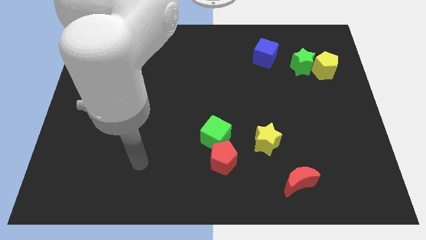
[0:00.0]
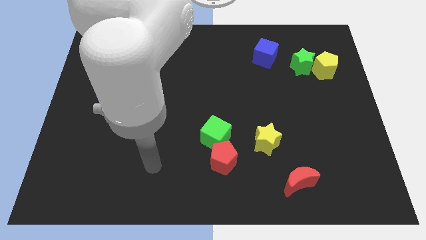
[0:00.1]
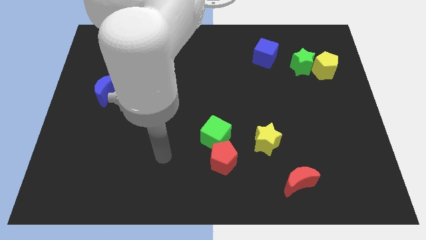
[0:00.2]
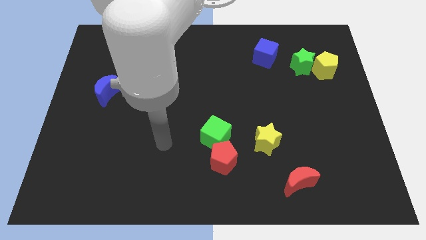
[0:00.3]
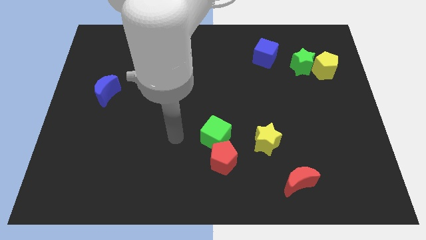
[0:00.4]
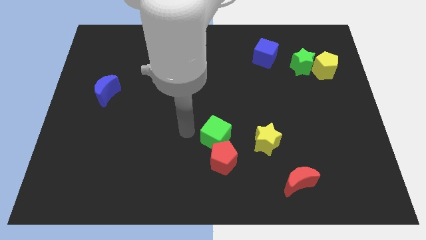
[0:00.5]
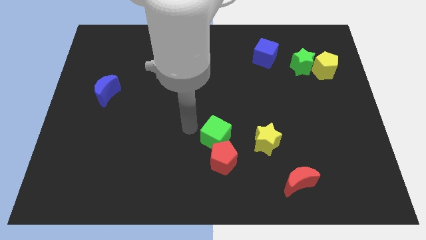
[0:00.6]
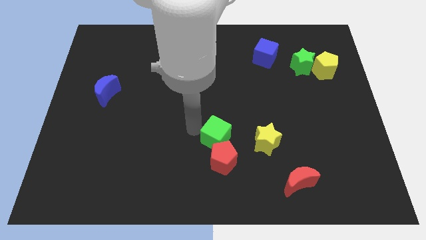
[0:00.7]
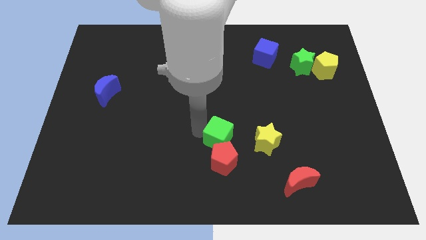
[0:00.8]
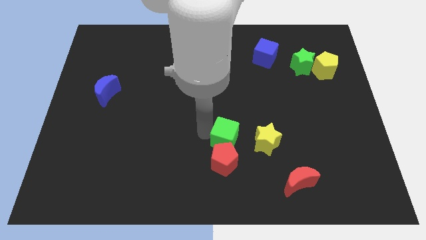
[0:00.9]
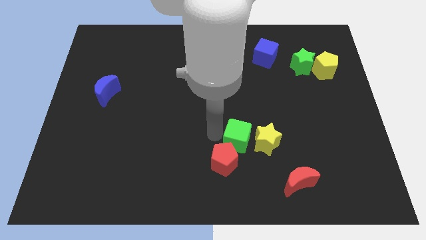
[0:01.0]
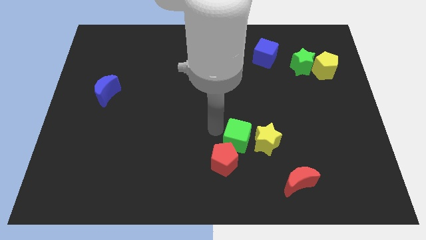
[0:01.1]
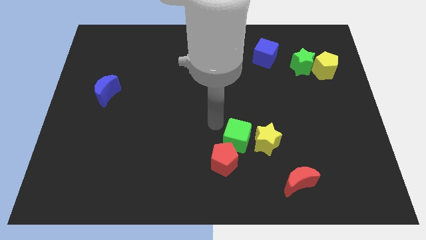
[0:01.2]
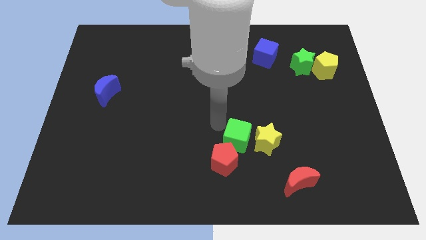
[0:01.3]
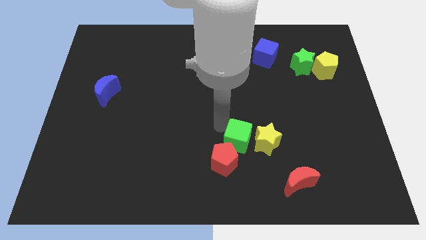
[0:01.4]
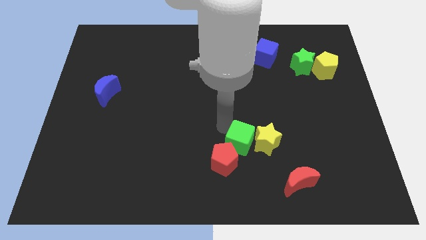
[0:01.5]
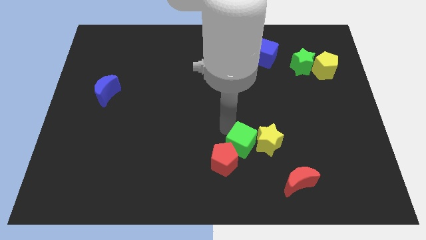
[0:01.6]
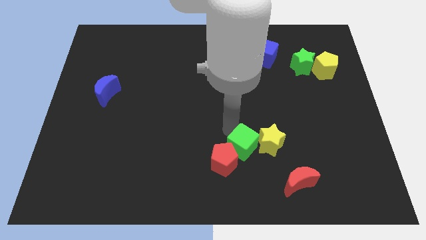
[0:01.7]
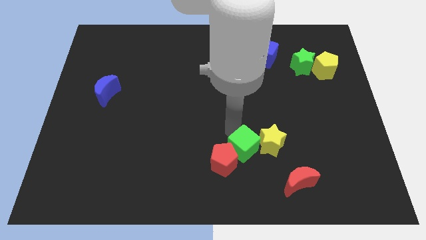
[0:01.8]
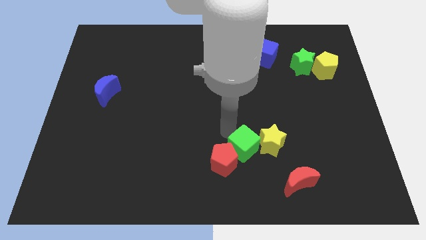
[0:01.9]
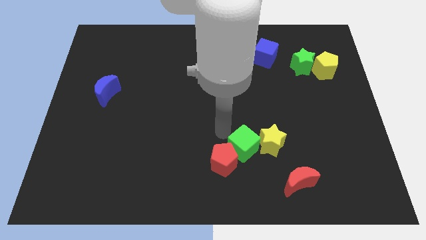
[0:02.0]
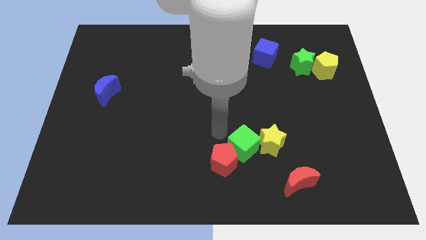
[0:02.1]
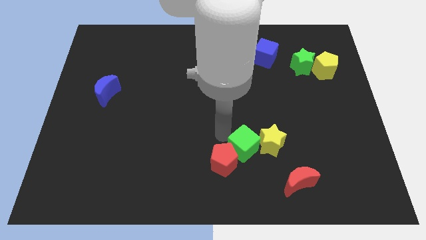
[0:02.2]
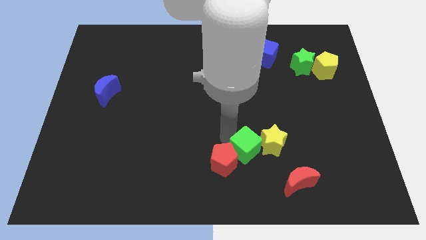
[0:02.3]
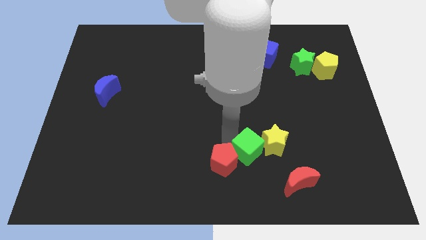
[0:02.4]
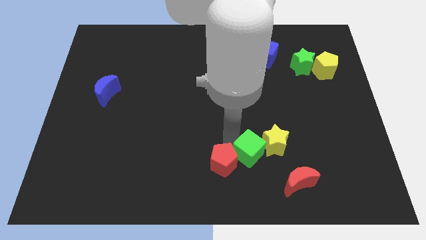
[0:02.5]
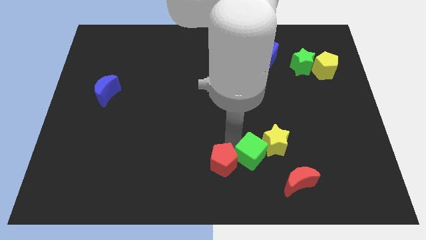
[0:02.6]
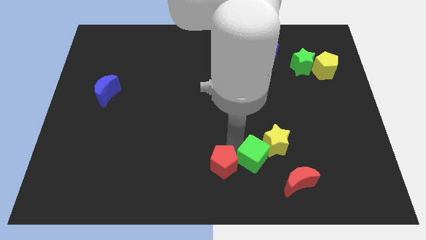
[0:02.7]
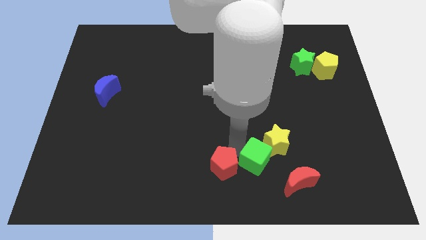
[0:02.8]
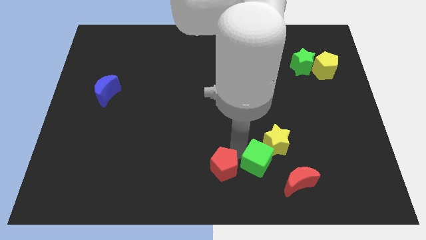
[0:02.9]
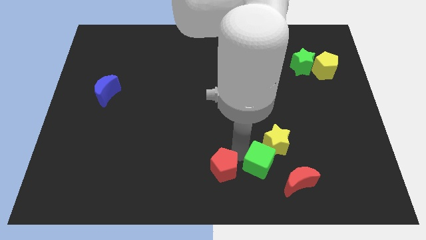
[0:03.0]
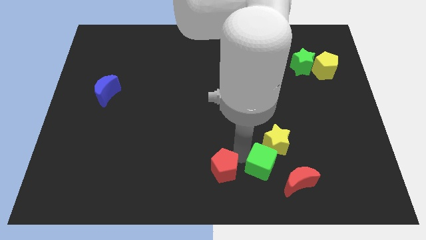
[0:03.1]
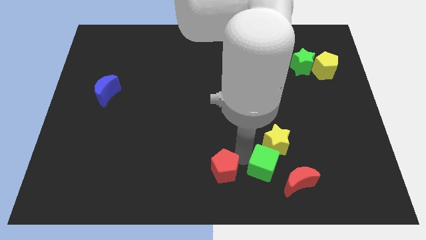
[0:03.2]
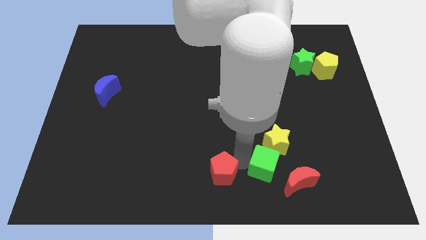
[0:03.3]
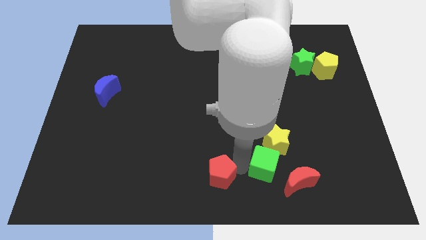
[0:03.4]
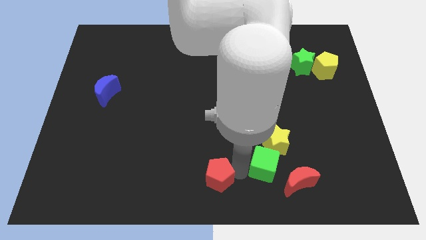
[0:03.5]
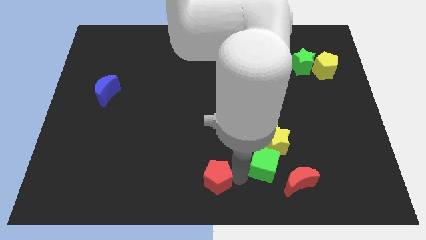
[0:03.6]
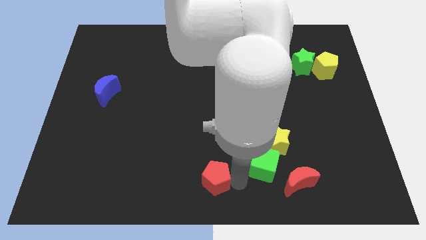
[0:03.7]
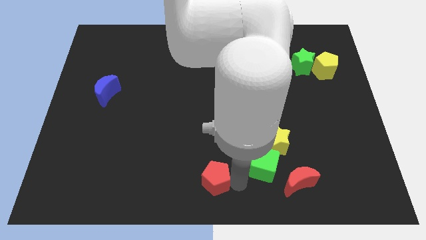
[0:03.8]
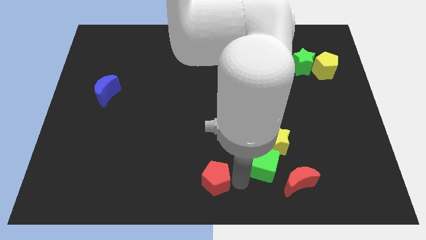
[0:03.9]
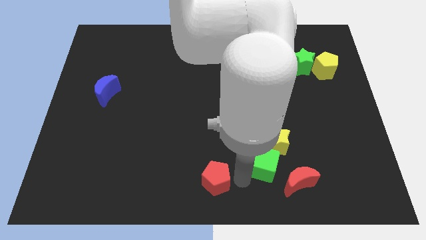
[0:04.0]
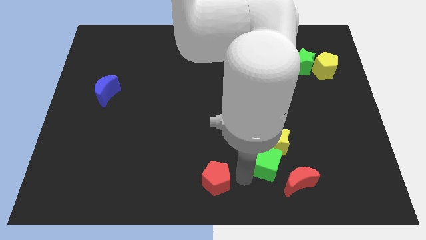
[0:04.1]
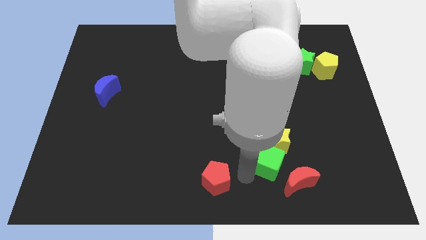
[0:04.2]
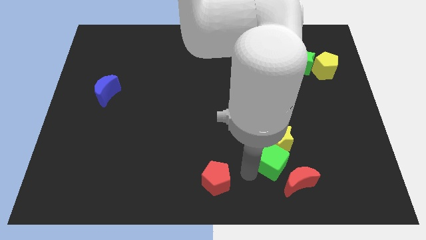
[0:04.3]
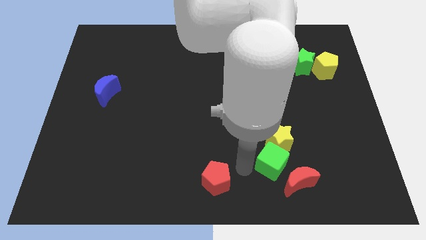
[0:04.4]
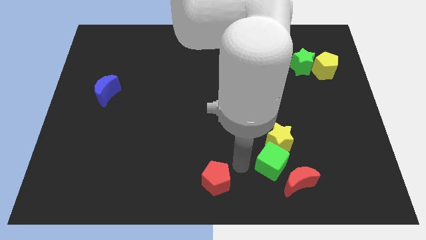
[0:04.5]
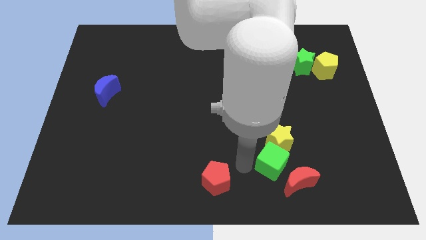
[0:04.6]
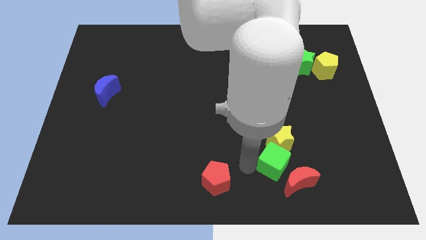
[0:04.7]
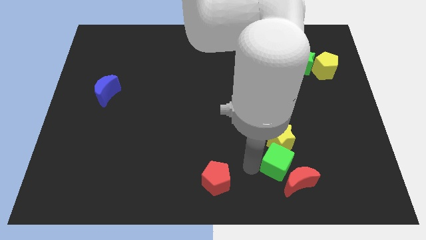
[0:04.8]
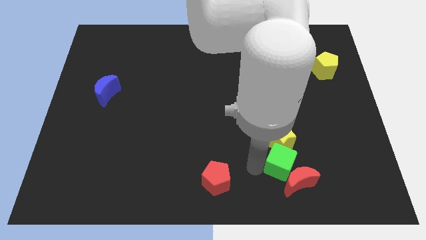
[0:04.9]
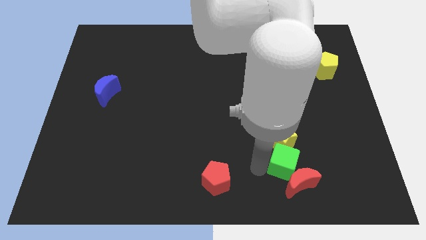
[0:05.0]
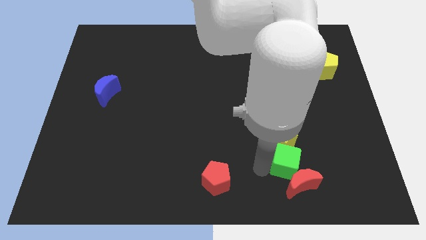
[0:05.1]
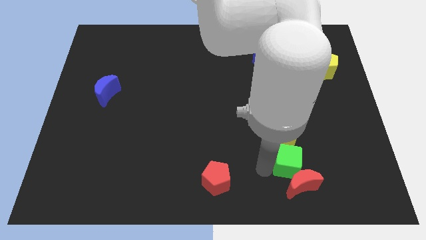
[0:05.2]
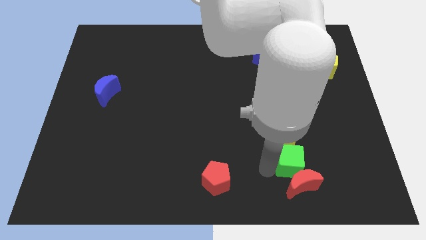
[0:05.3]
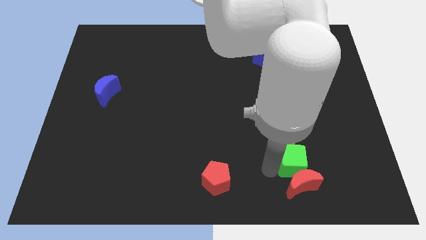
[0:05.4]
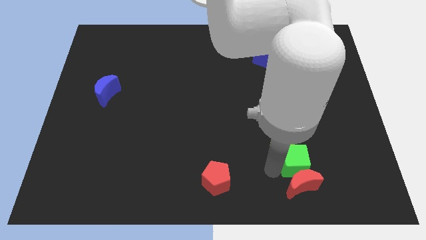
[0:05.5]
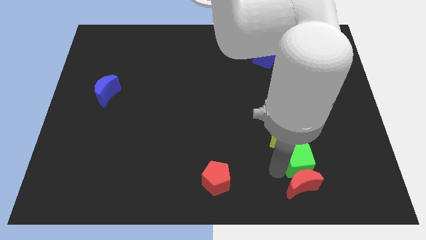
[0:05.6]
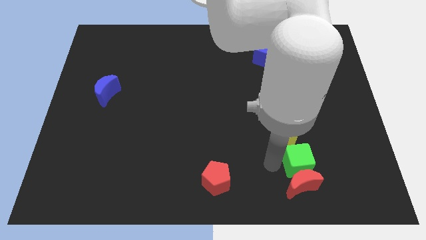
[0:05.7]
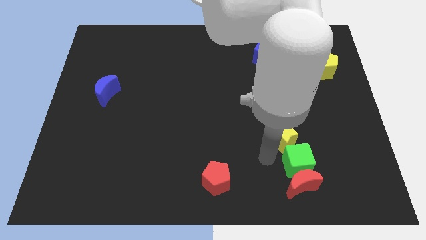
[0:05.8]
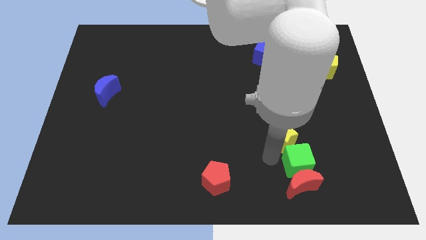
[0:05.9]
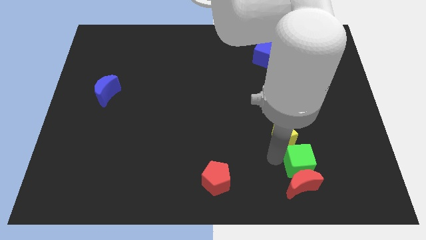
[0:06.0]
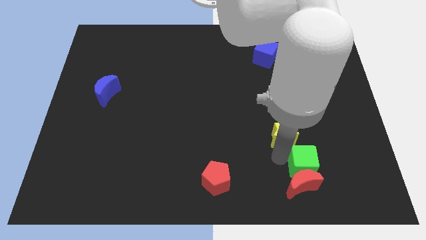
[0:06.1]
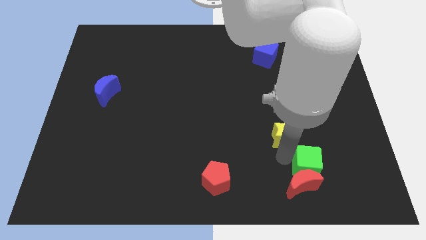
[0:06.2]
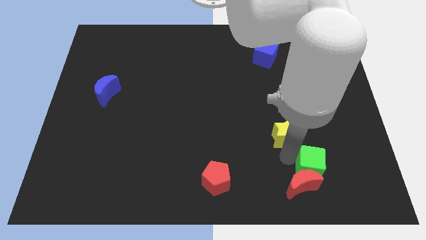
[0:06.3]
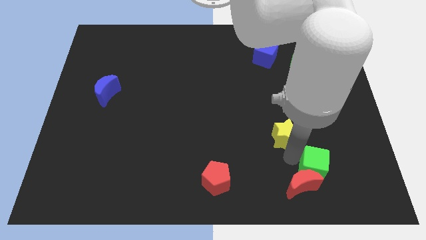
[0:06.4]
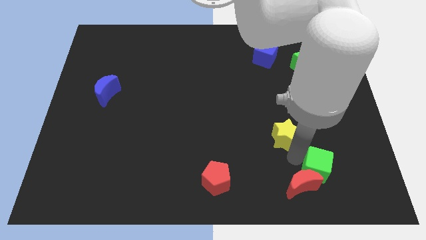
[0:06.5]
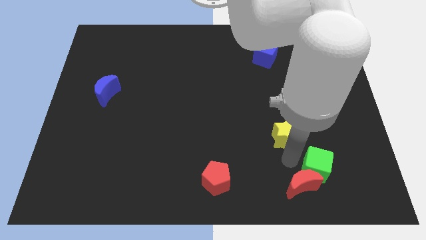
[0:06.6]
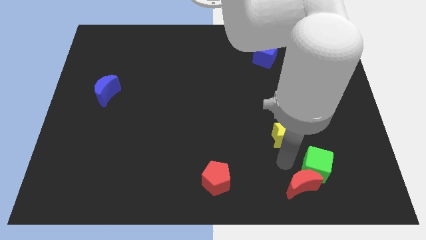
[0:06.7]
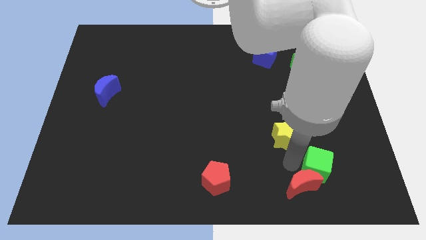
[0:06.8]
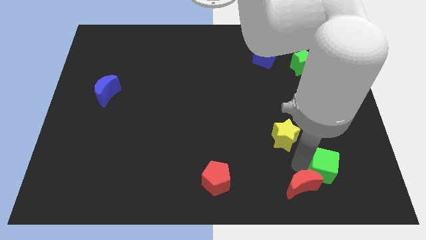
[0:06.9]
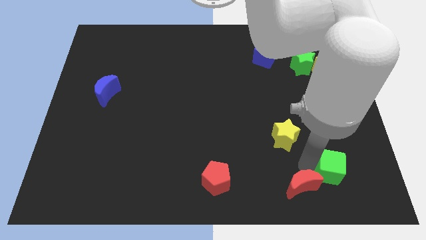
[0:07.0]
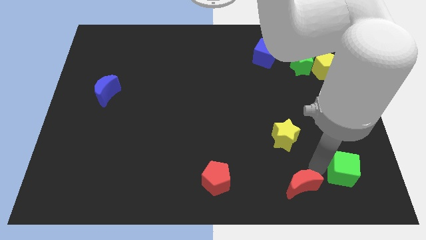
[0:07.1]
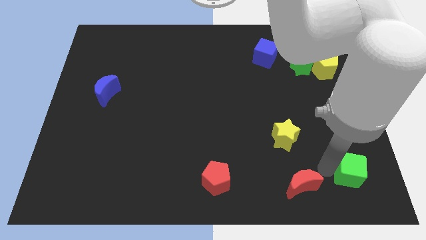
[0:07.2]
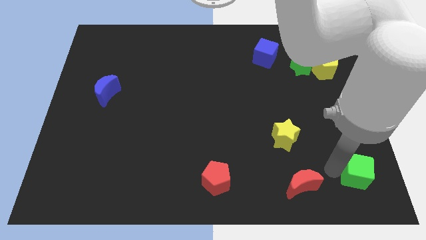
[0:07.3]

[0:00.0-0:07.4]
put the green cube to the lower right corner
